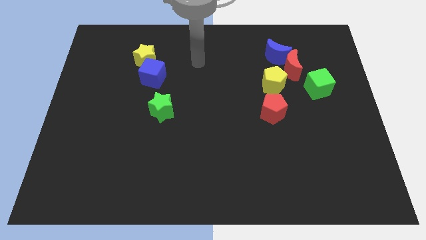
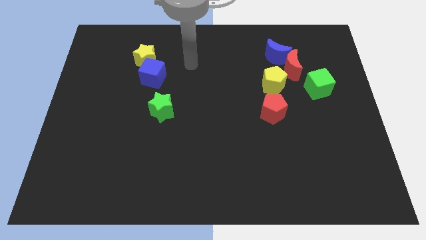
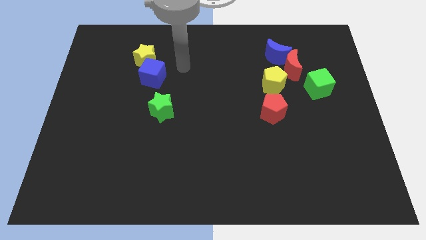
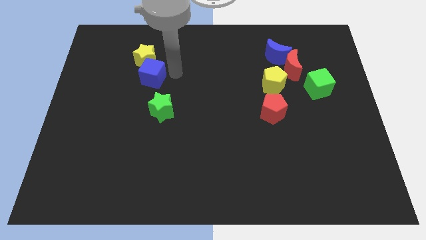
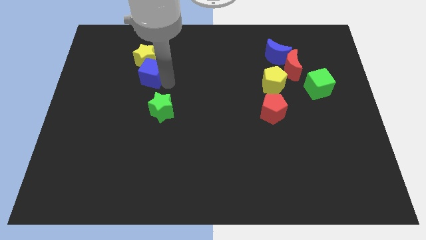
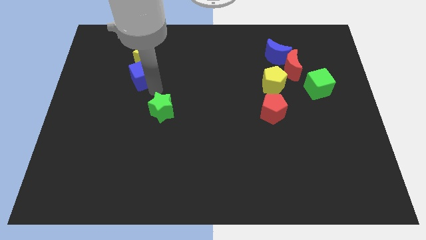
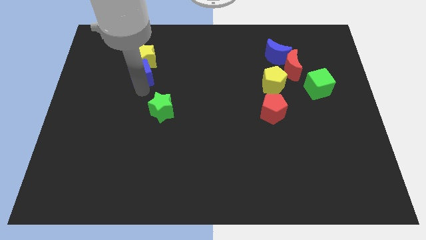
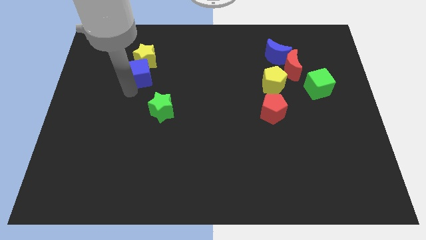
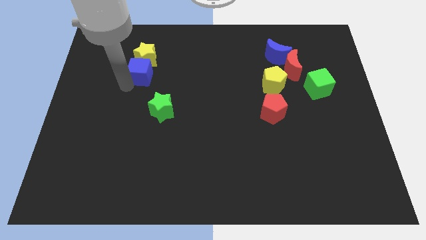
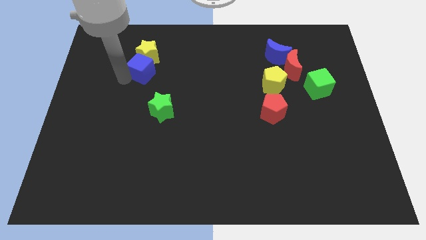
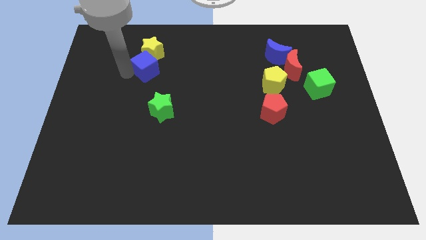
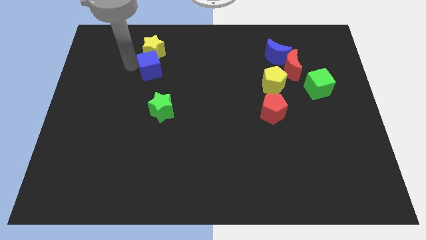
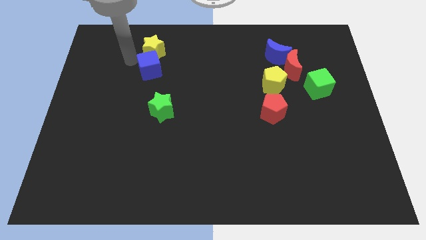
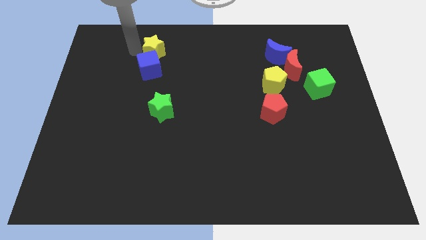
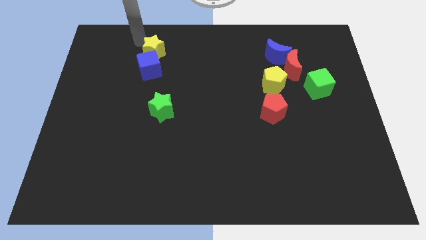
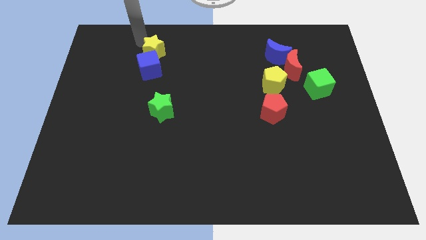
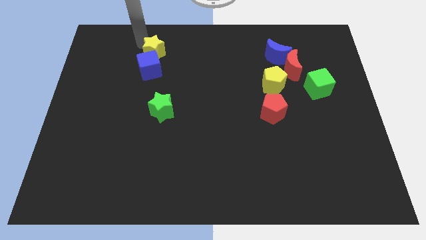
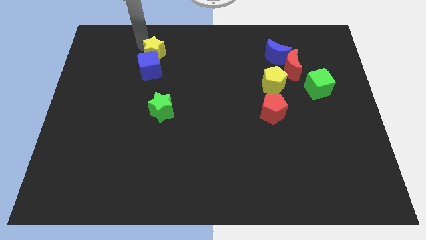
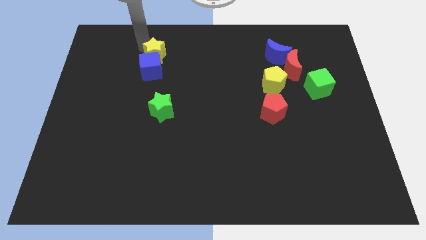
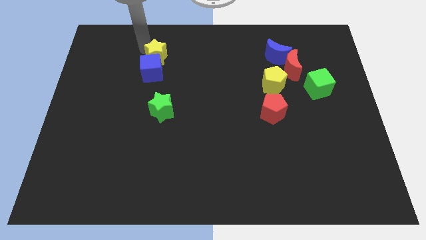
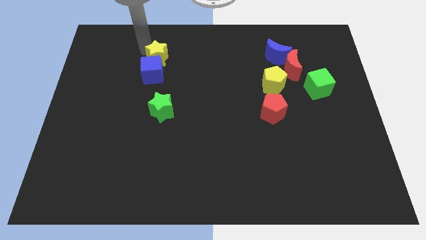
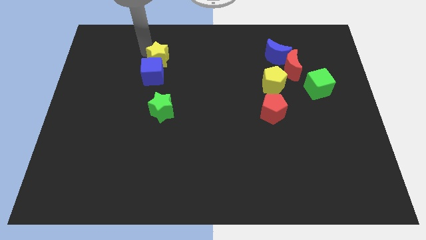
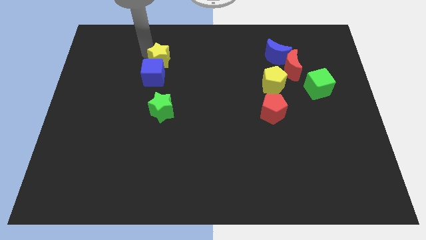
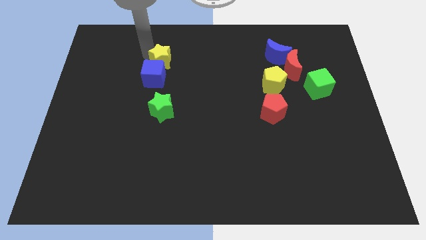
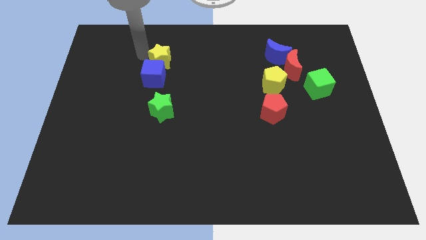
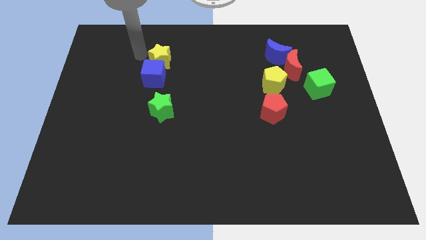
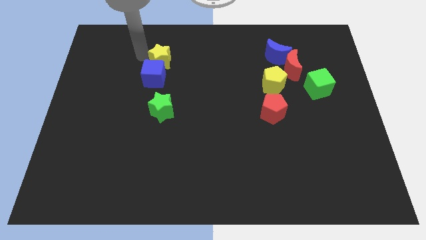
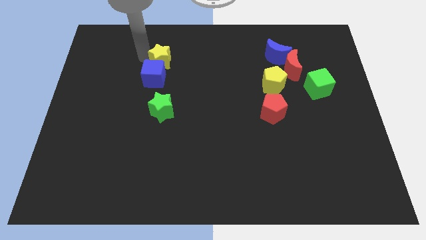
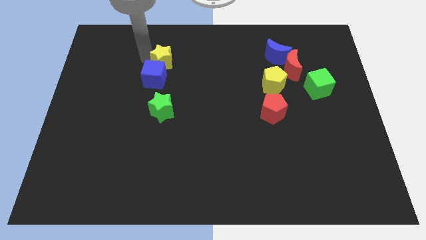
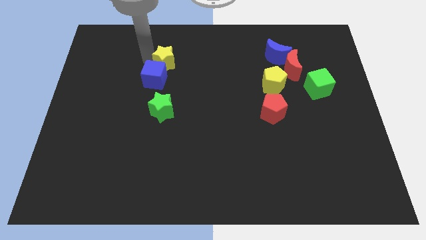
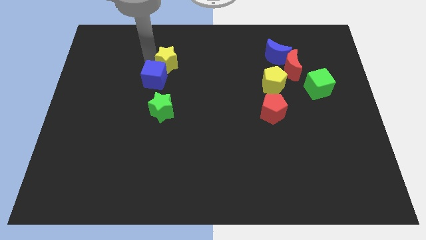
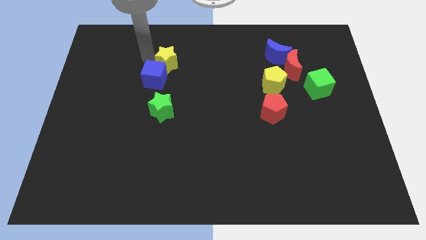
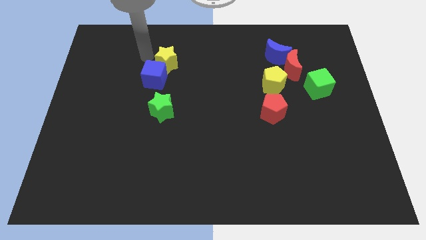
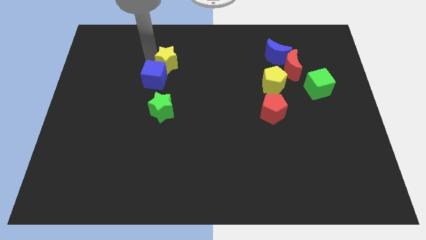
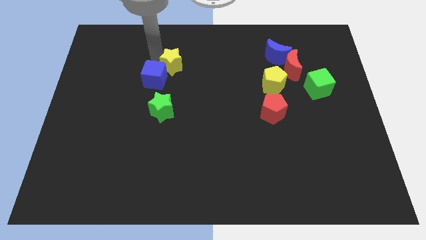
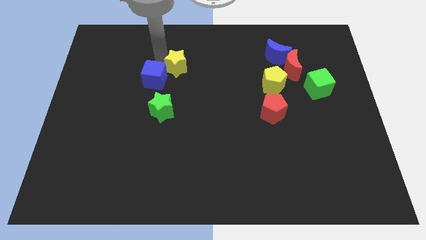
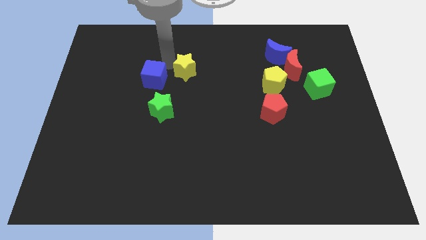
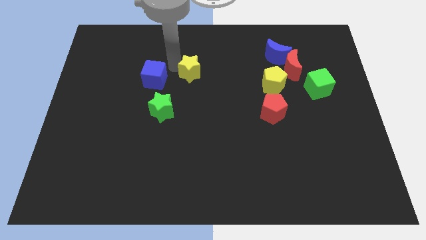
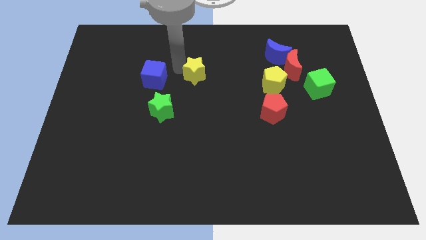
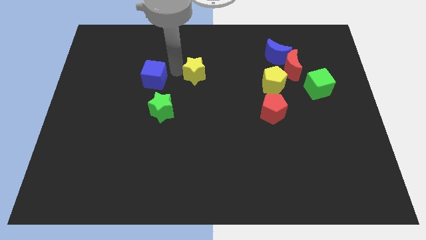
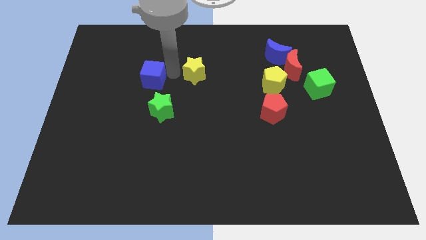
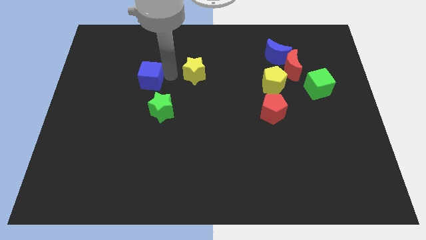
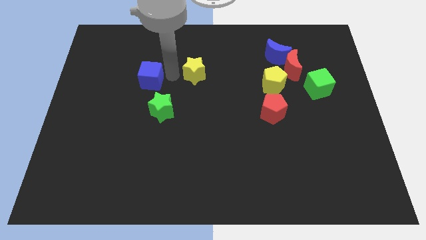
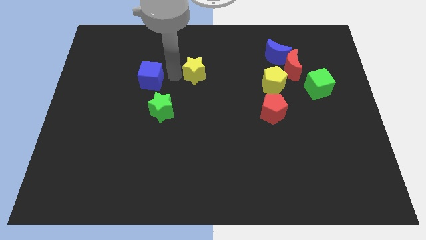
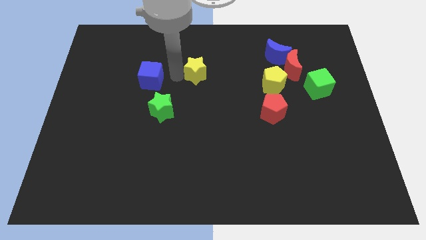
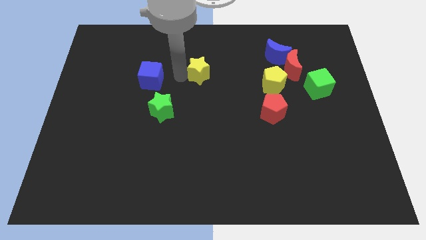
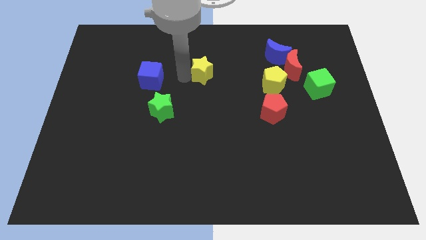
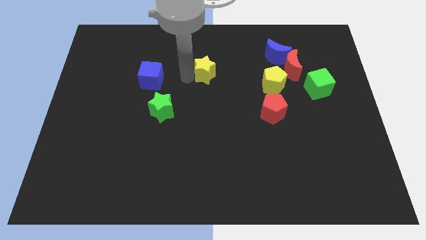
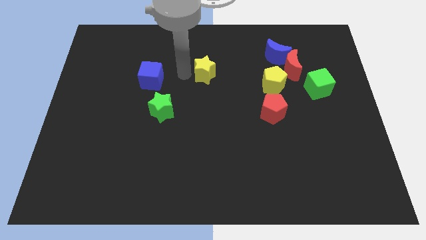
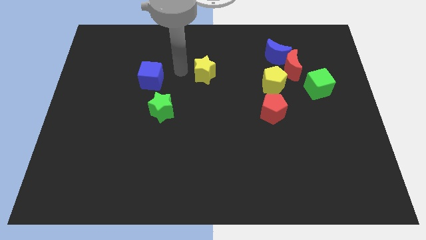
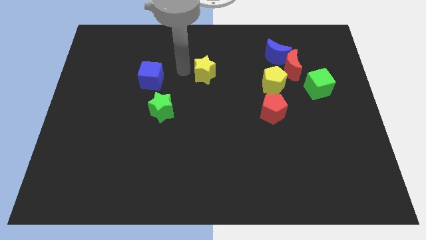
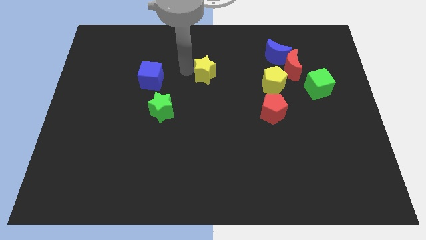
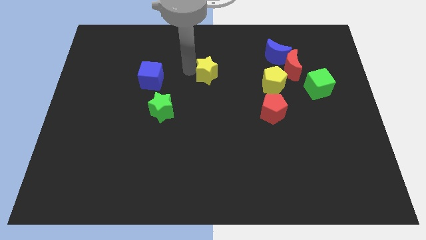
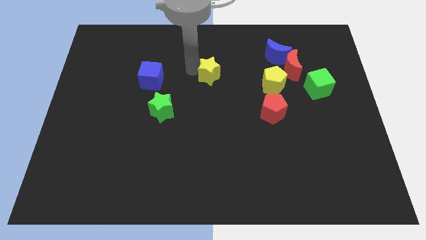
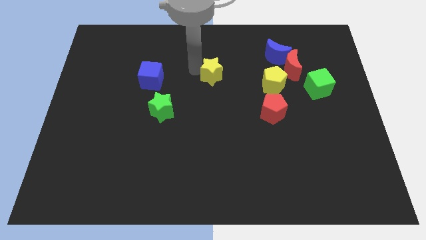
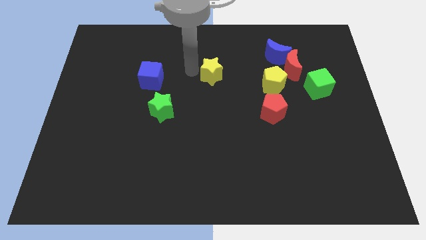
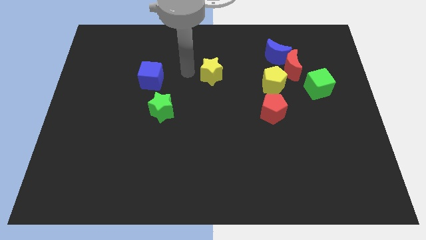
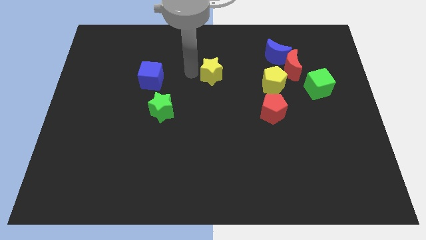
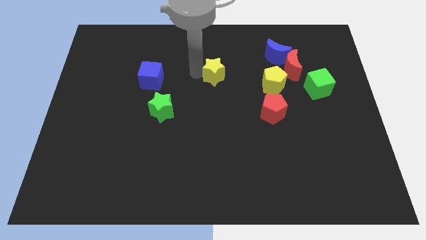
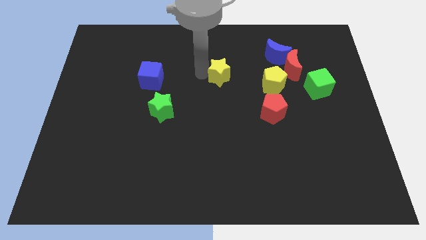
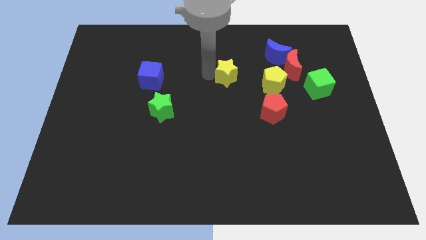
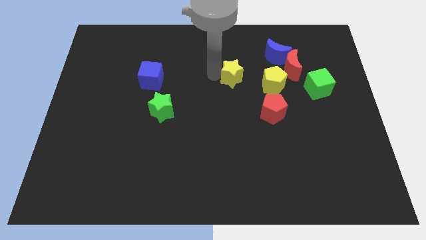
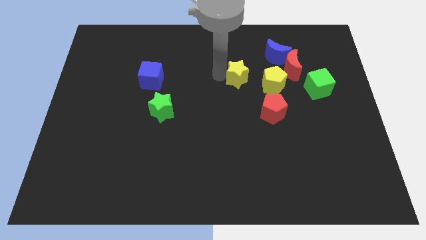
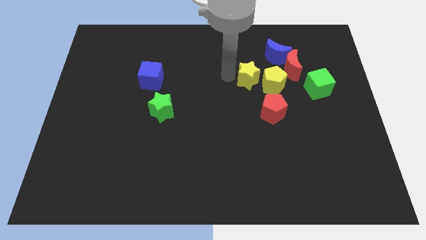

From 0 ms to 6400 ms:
push the yellow star next to the yellow pentagon

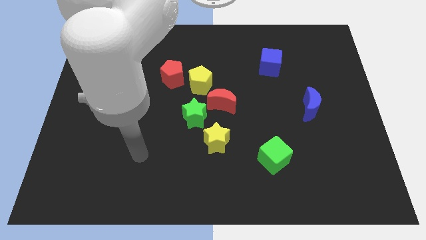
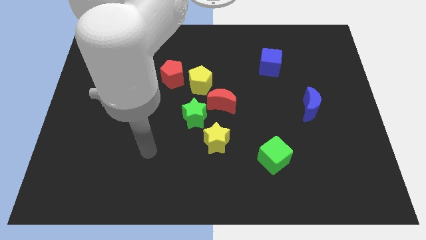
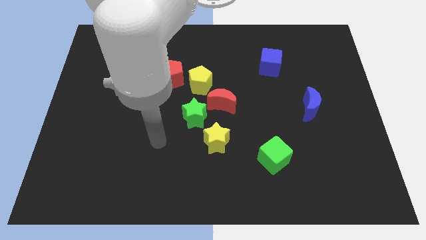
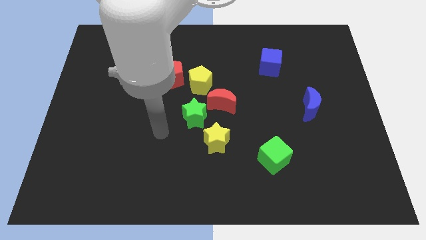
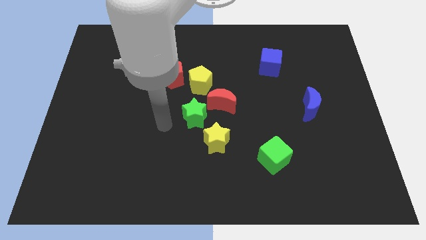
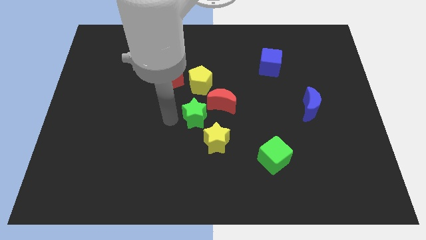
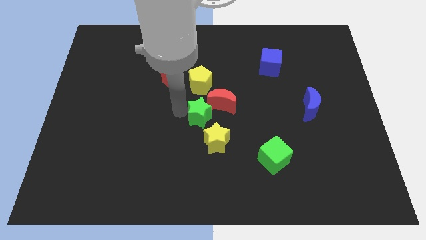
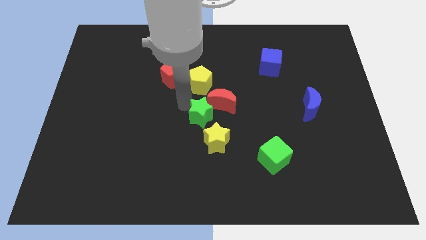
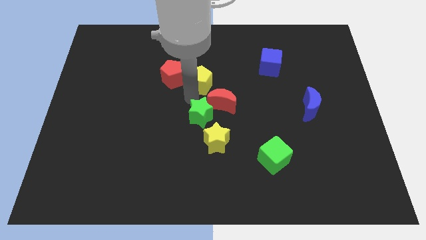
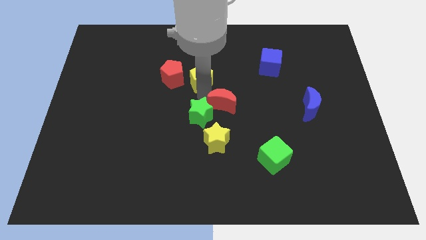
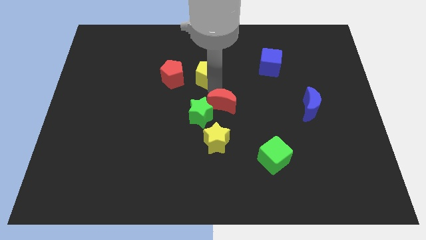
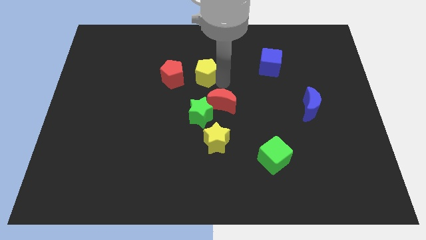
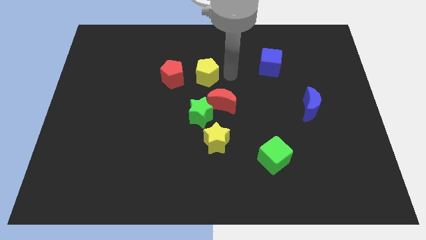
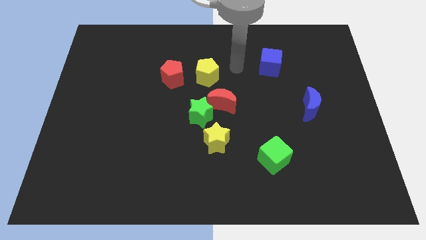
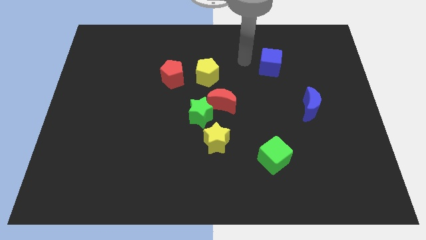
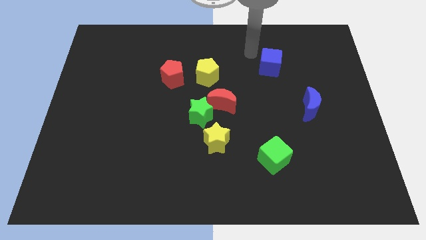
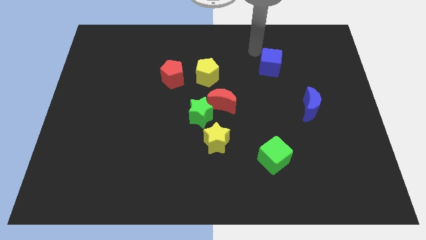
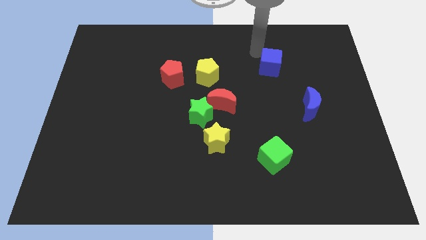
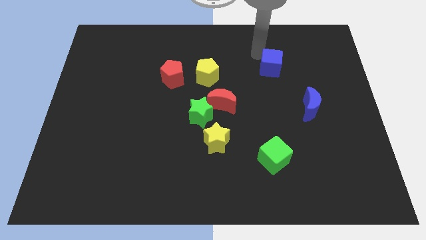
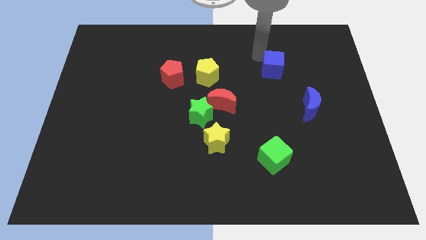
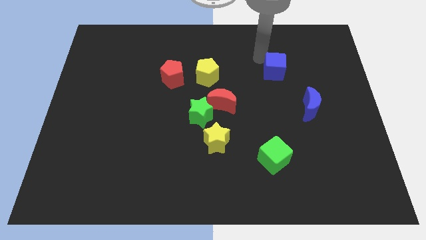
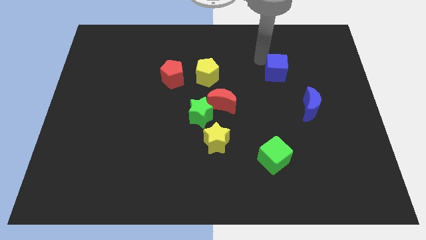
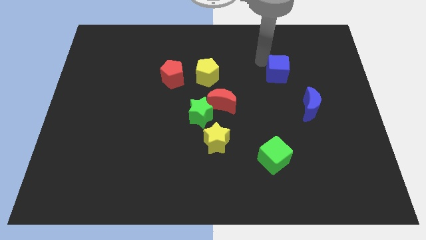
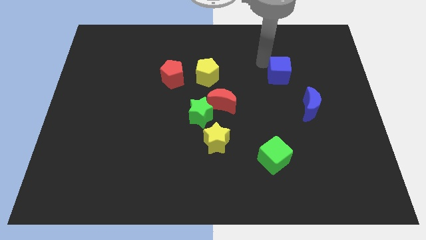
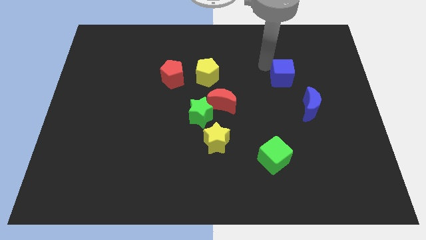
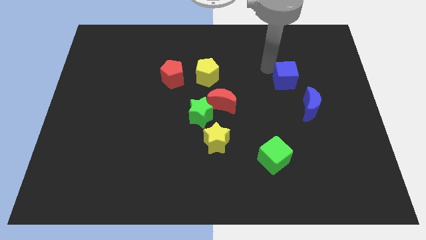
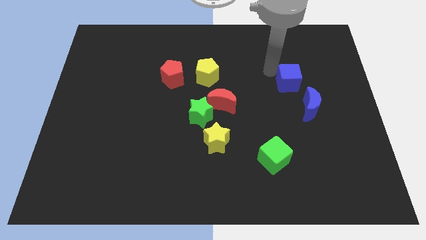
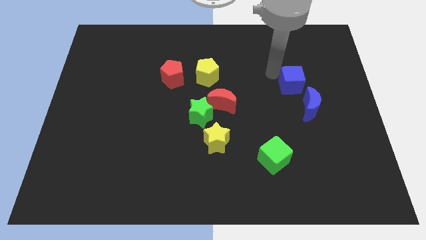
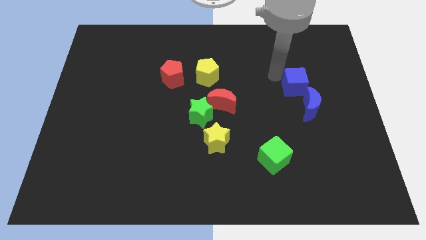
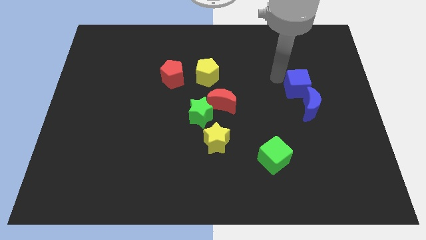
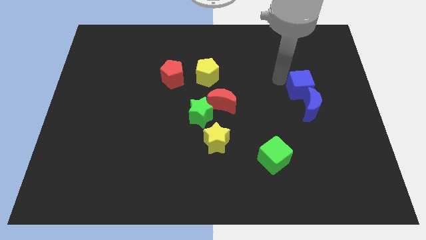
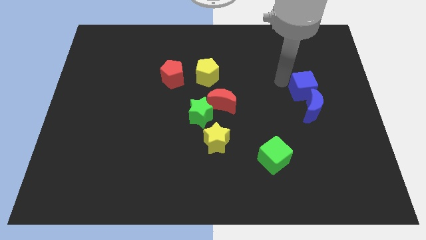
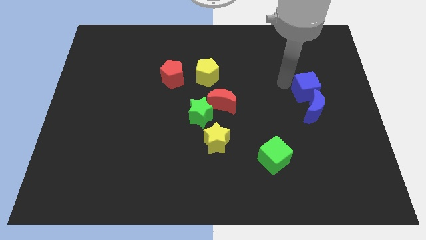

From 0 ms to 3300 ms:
push the blue cube next to the blue moon
